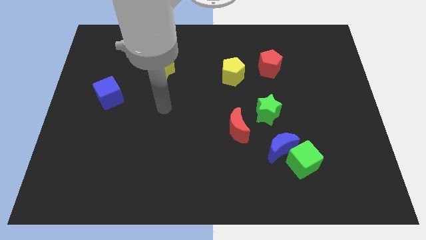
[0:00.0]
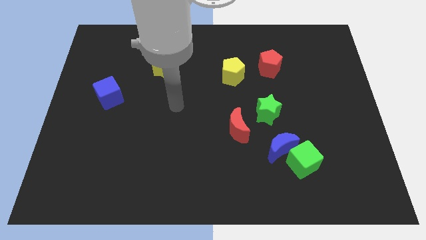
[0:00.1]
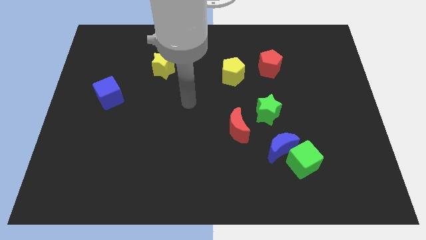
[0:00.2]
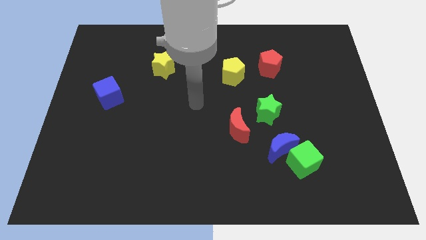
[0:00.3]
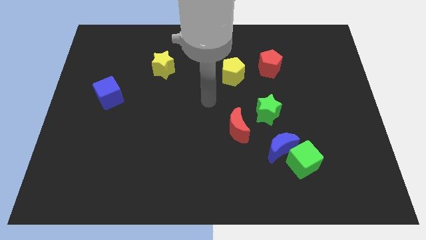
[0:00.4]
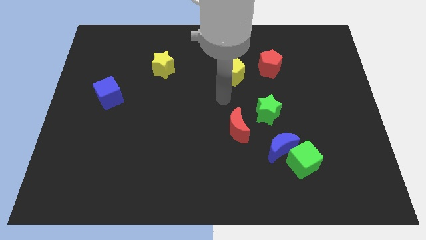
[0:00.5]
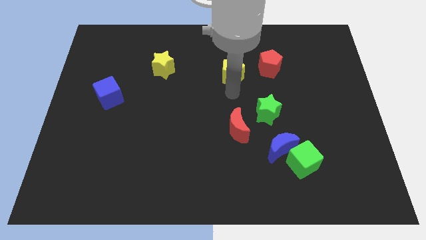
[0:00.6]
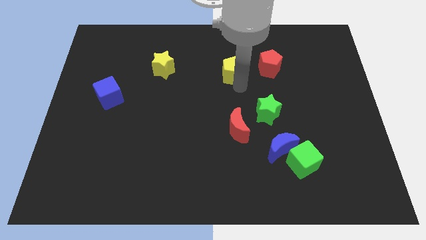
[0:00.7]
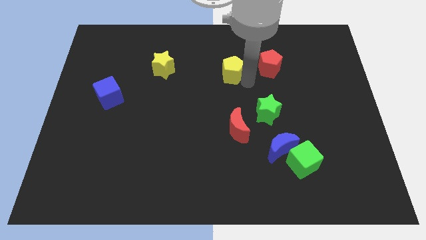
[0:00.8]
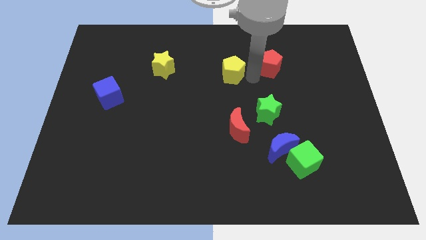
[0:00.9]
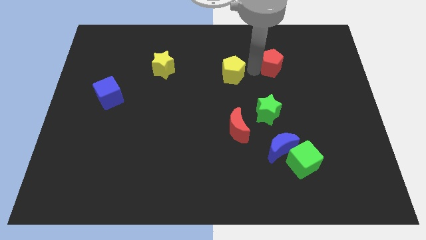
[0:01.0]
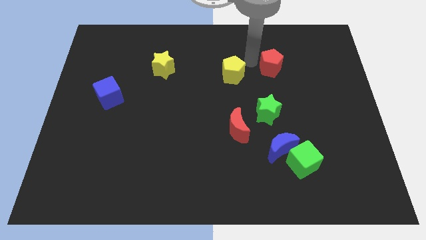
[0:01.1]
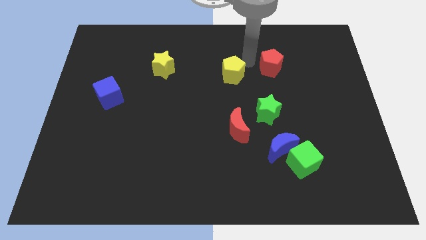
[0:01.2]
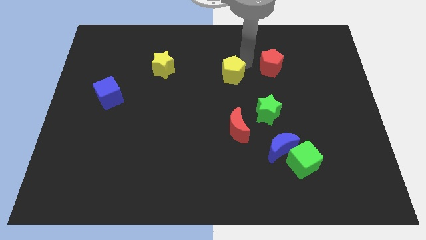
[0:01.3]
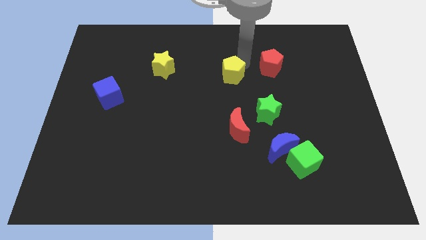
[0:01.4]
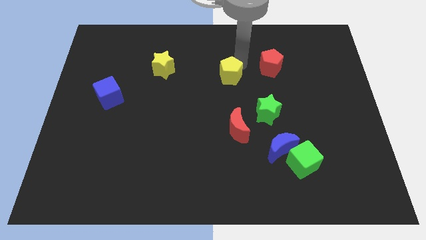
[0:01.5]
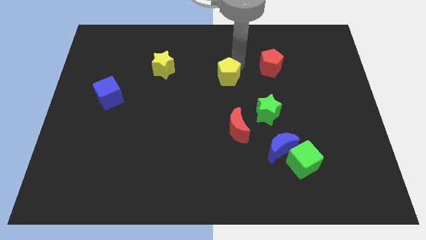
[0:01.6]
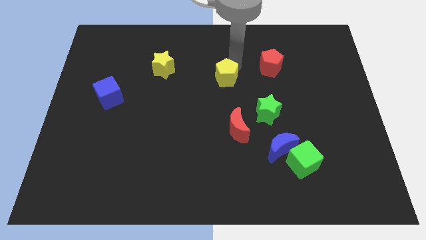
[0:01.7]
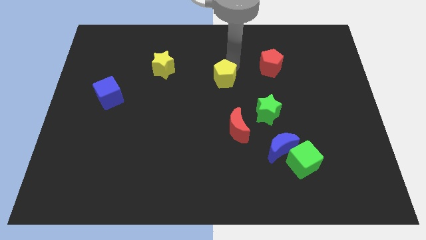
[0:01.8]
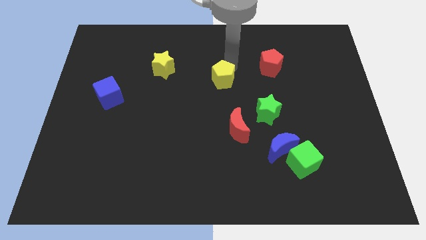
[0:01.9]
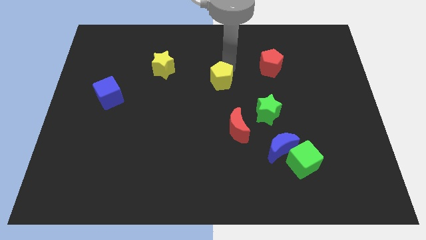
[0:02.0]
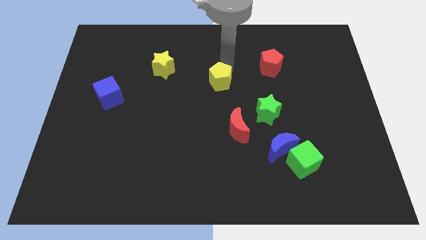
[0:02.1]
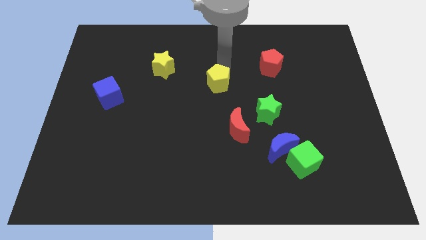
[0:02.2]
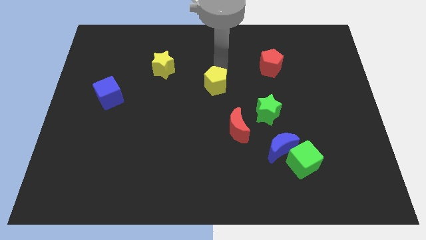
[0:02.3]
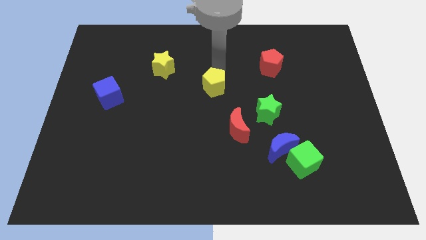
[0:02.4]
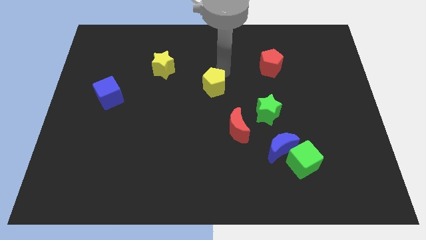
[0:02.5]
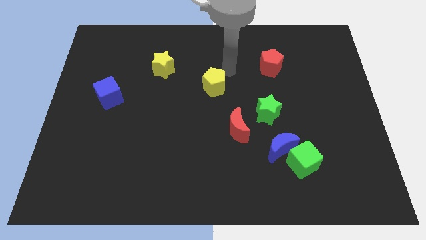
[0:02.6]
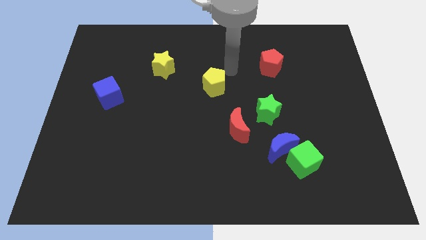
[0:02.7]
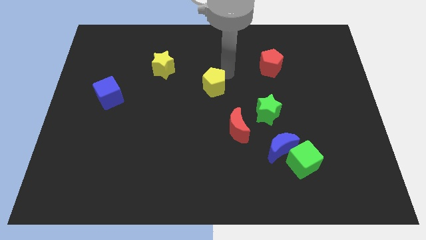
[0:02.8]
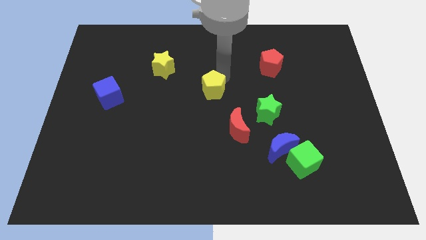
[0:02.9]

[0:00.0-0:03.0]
slightly push the yellow pentagon down and then to the left

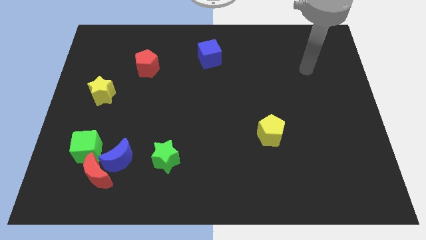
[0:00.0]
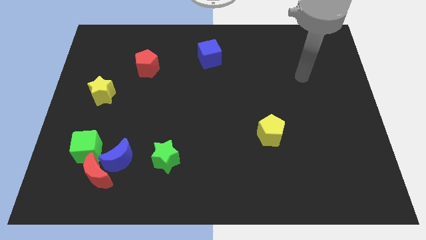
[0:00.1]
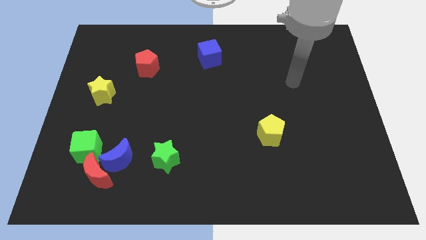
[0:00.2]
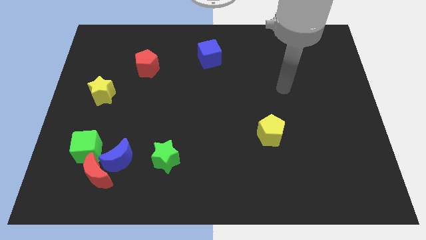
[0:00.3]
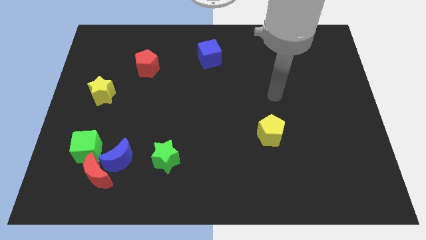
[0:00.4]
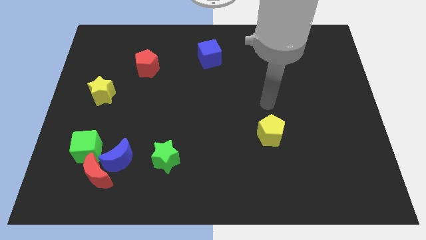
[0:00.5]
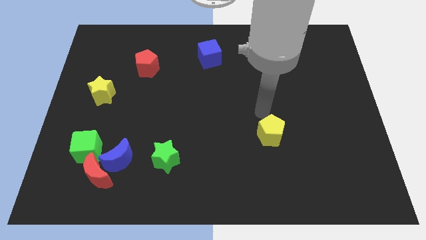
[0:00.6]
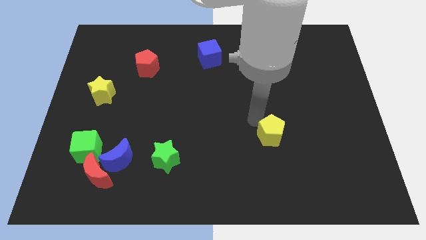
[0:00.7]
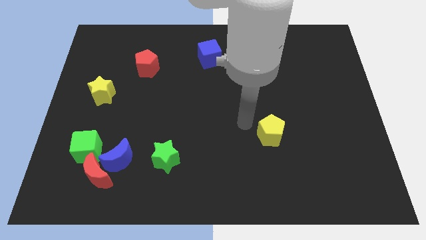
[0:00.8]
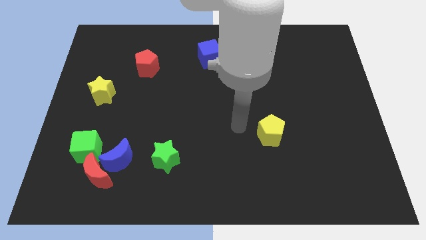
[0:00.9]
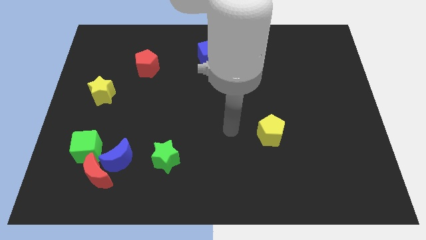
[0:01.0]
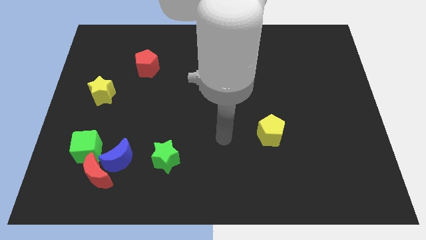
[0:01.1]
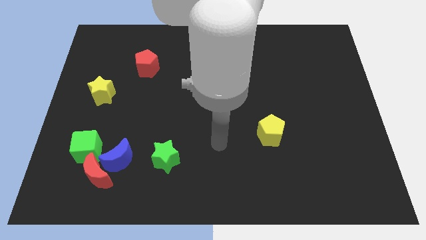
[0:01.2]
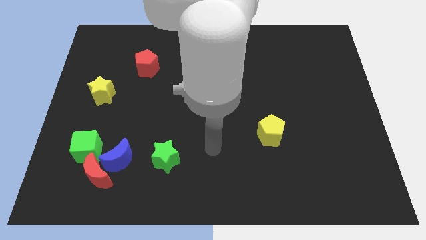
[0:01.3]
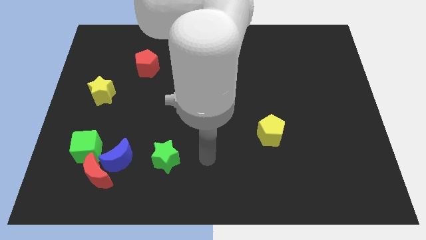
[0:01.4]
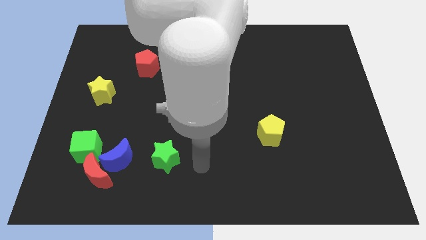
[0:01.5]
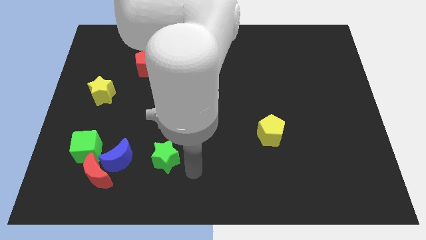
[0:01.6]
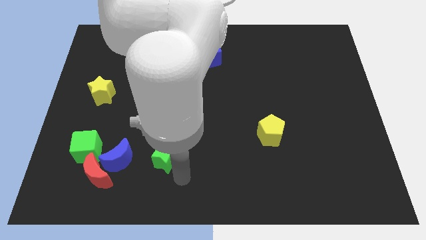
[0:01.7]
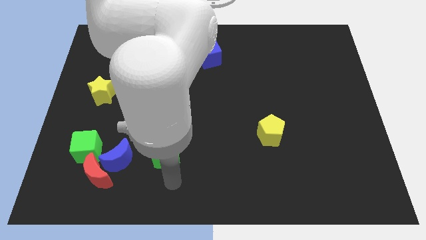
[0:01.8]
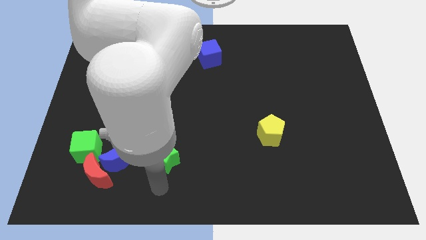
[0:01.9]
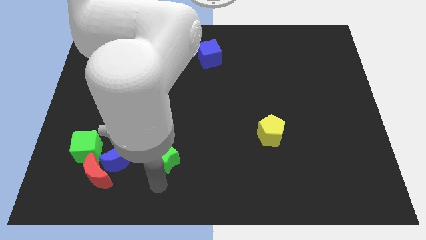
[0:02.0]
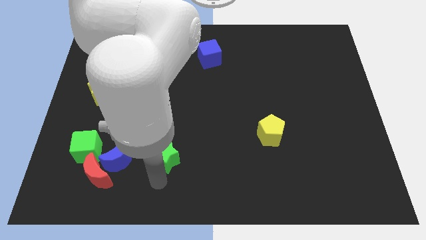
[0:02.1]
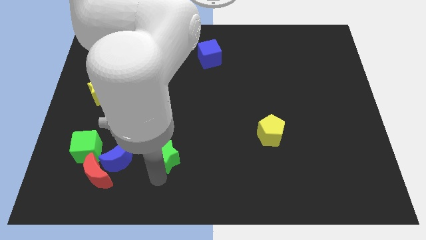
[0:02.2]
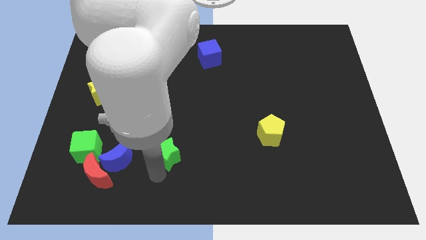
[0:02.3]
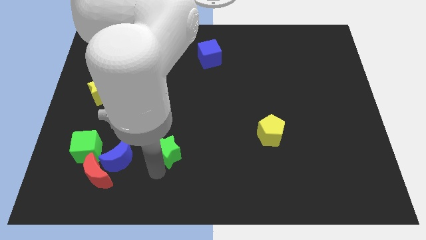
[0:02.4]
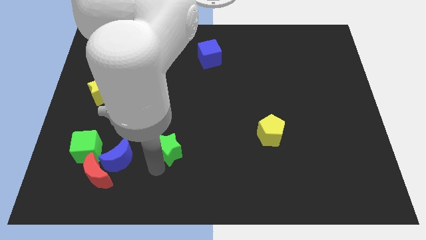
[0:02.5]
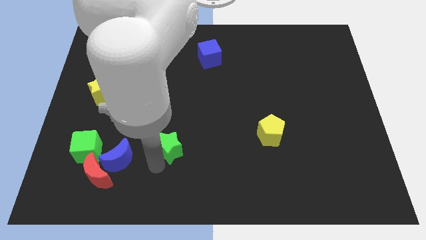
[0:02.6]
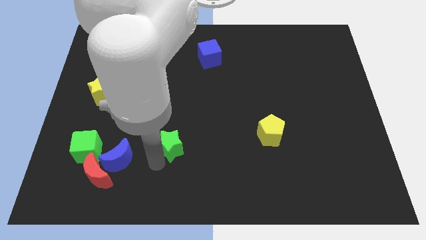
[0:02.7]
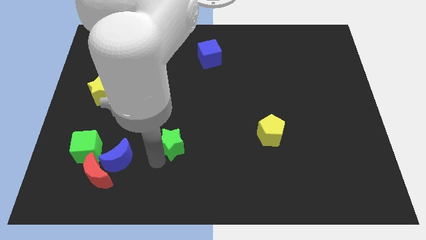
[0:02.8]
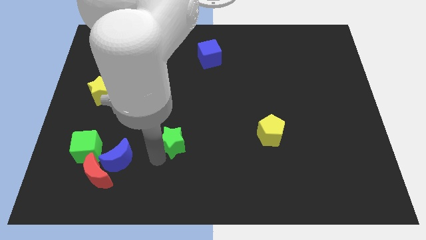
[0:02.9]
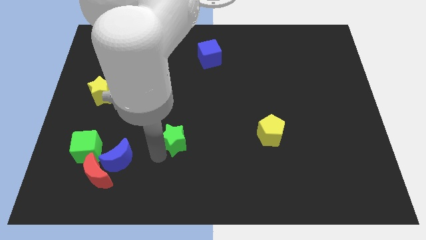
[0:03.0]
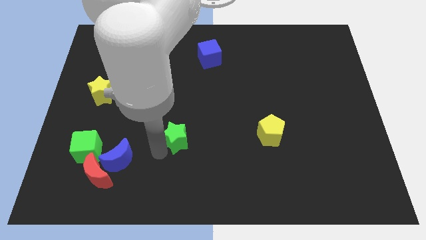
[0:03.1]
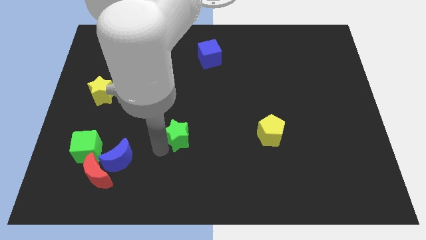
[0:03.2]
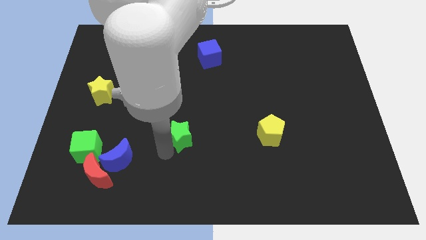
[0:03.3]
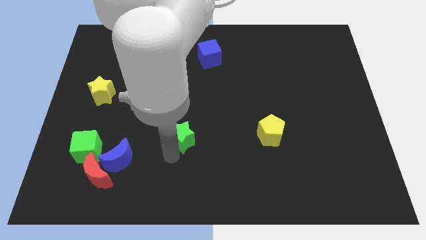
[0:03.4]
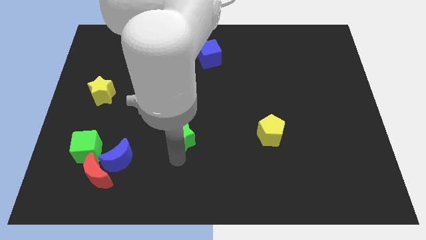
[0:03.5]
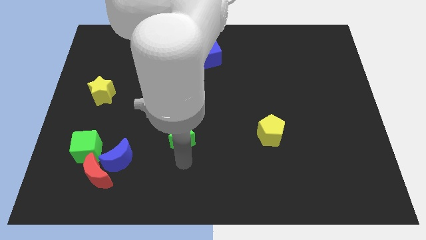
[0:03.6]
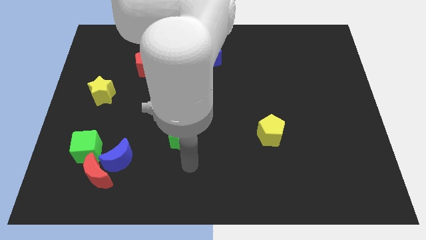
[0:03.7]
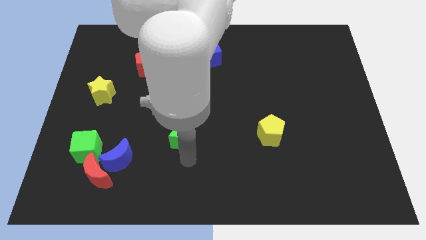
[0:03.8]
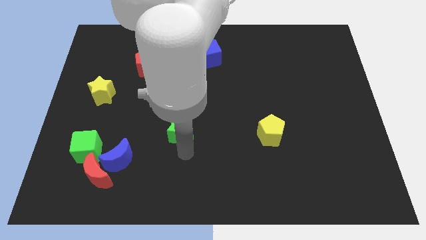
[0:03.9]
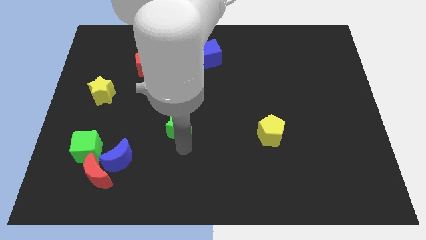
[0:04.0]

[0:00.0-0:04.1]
slightly slide the green star upwards

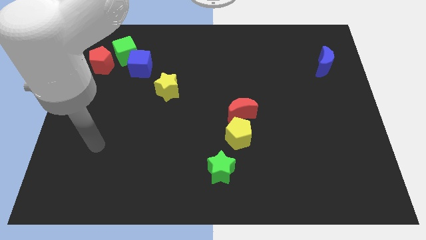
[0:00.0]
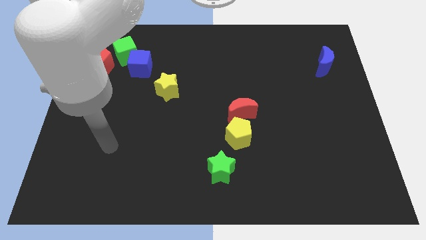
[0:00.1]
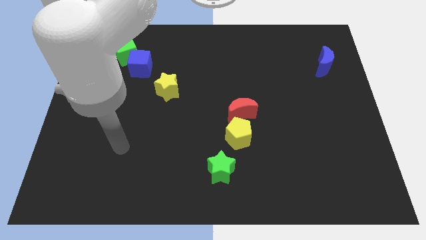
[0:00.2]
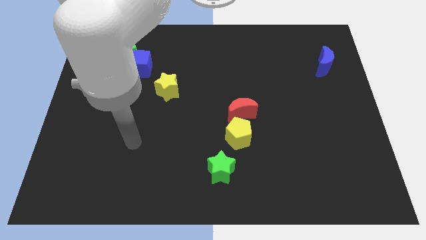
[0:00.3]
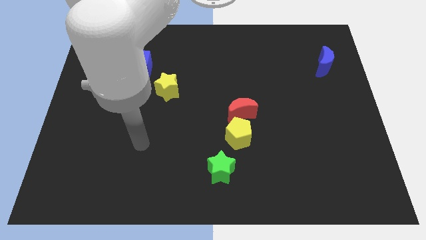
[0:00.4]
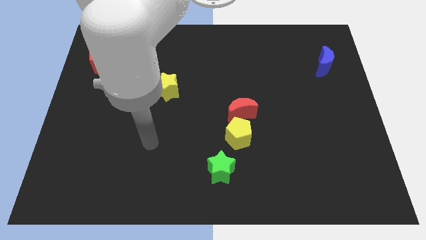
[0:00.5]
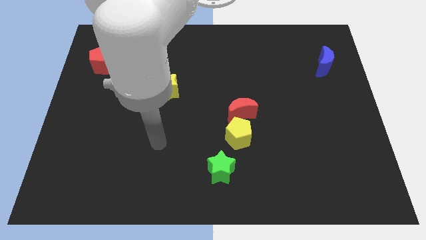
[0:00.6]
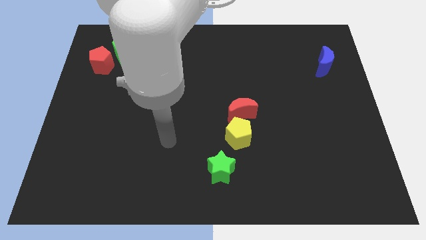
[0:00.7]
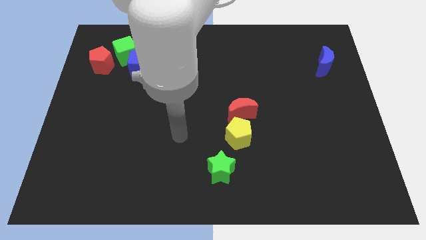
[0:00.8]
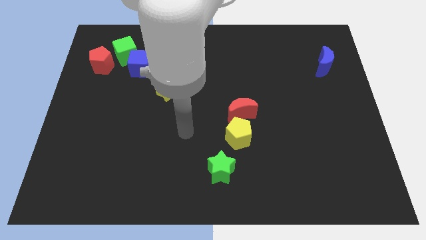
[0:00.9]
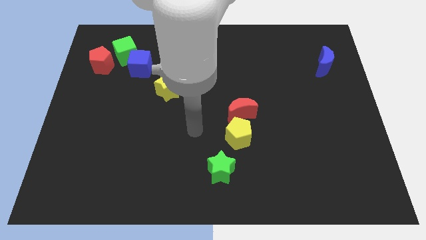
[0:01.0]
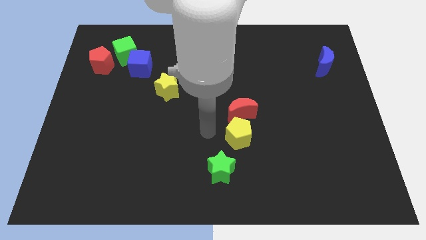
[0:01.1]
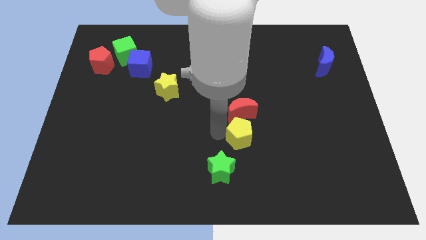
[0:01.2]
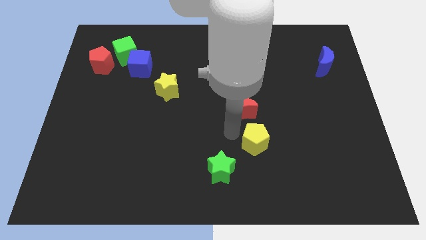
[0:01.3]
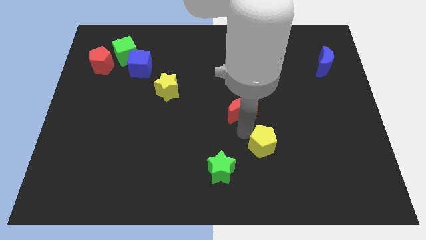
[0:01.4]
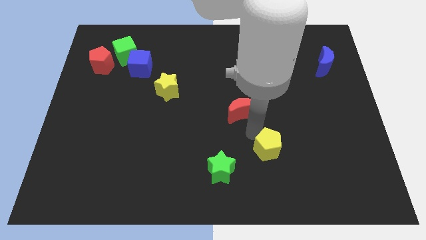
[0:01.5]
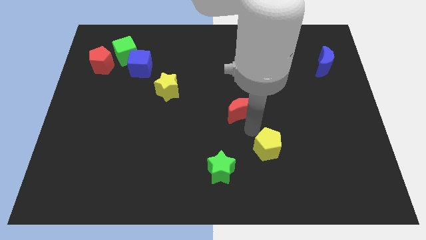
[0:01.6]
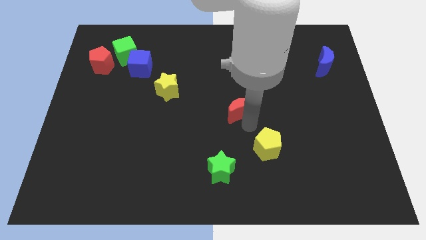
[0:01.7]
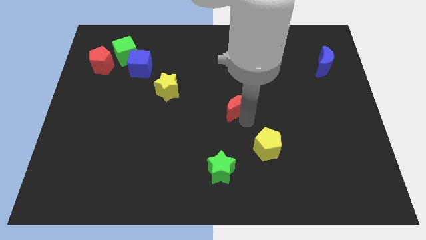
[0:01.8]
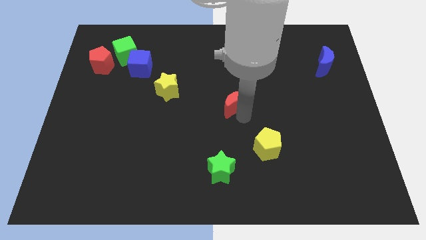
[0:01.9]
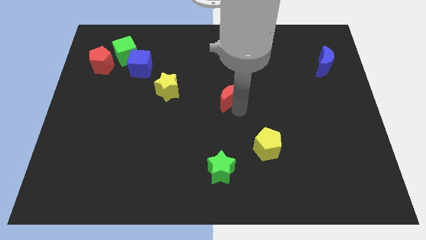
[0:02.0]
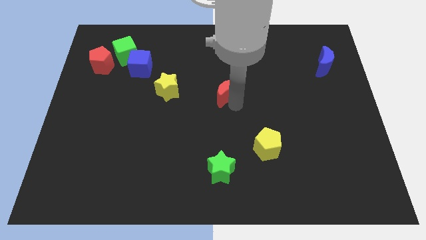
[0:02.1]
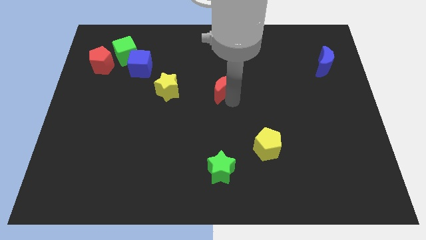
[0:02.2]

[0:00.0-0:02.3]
slide the red moon upwards and to the left diagonally a bit
